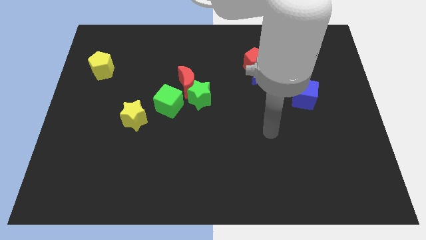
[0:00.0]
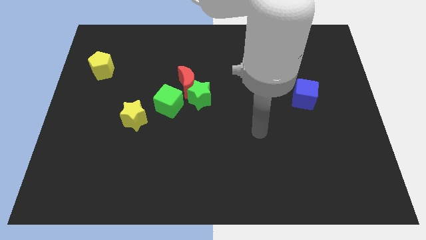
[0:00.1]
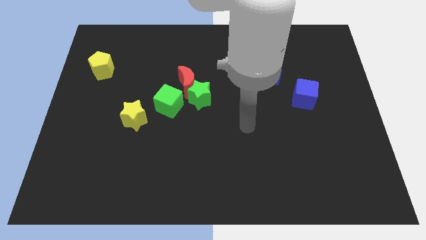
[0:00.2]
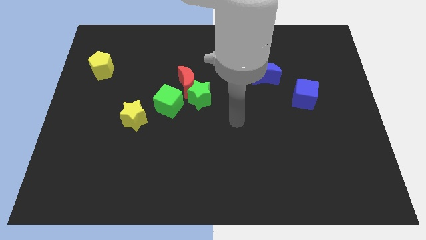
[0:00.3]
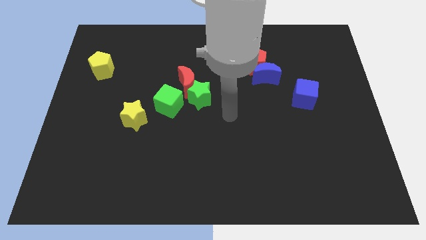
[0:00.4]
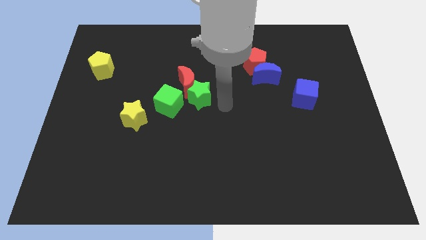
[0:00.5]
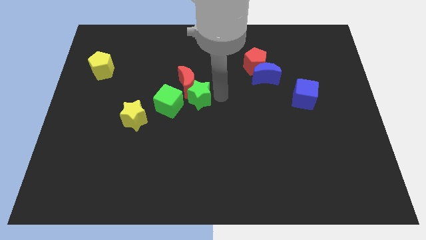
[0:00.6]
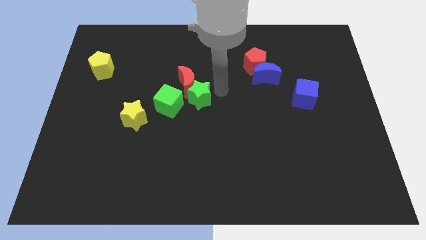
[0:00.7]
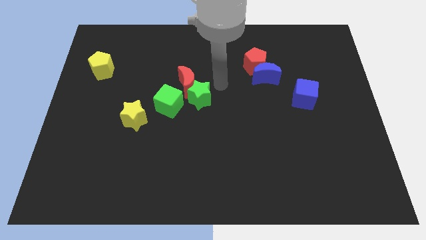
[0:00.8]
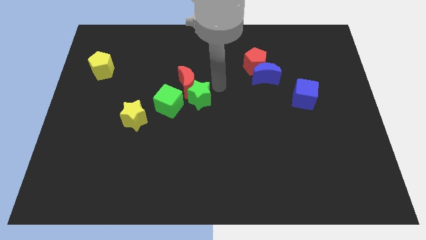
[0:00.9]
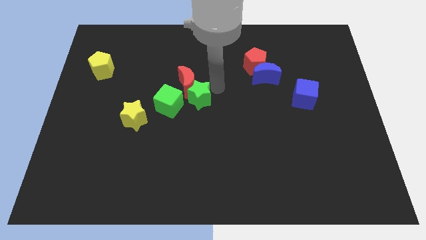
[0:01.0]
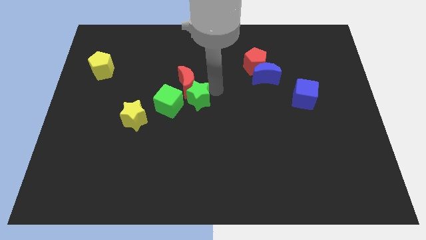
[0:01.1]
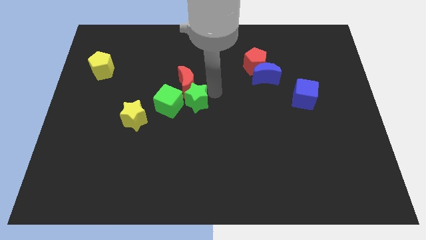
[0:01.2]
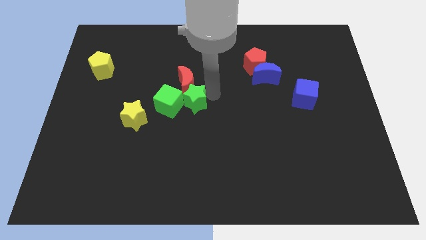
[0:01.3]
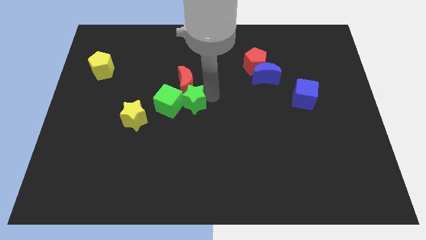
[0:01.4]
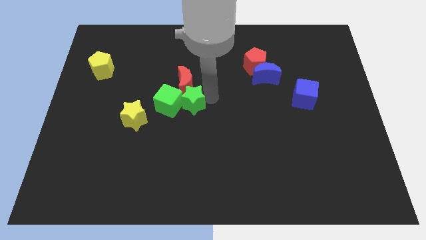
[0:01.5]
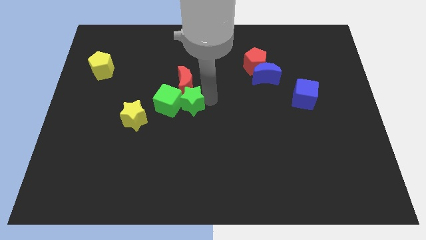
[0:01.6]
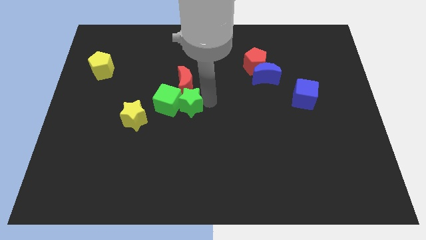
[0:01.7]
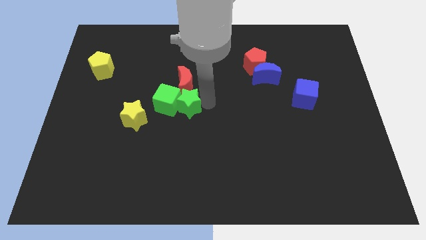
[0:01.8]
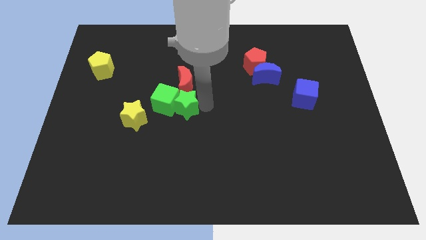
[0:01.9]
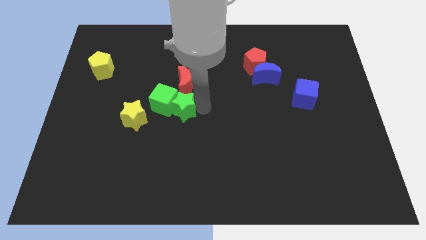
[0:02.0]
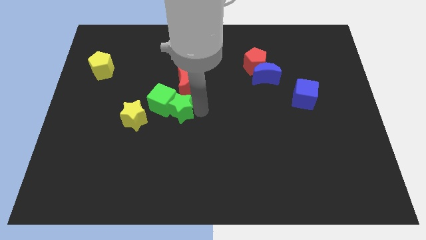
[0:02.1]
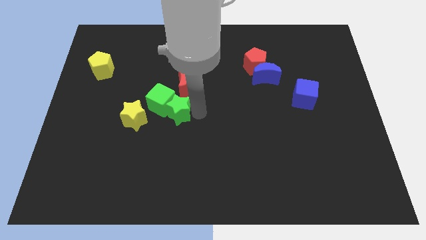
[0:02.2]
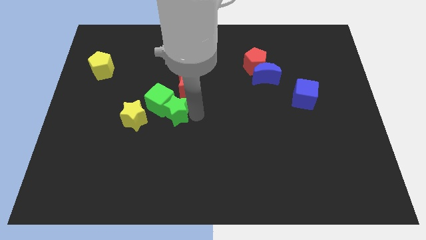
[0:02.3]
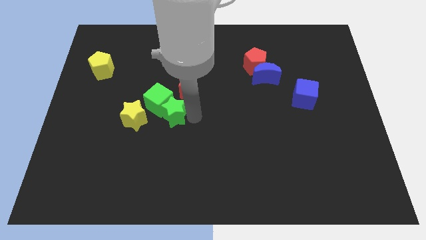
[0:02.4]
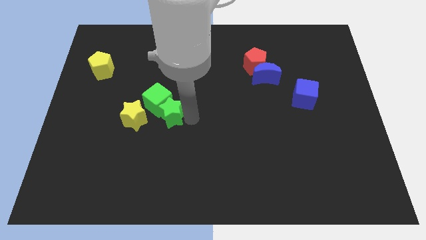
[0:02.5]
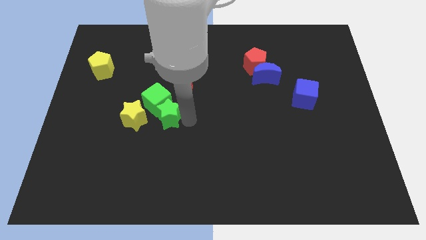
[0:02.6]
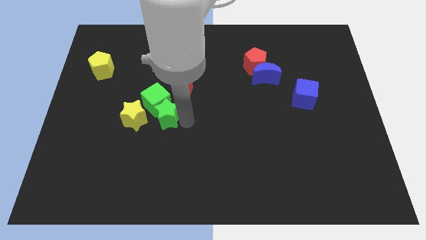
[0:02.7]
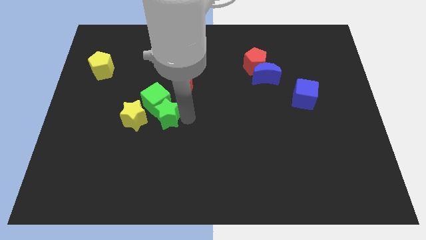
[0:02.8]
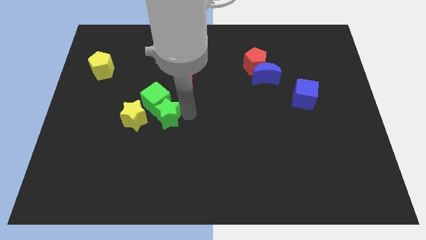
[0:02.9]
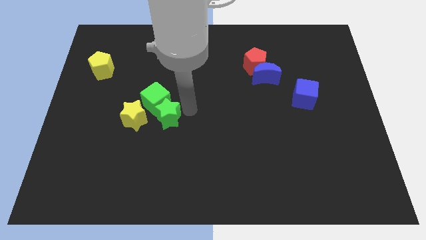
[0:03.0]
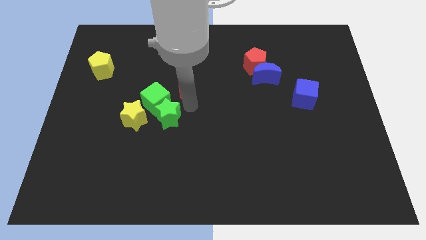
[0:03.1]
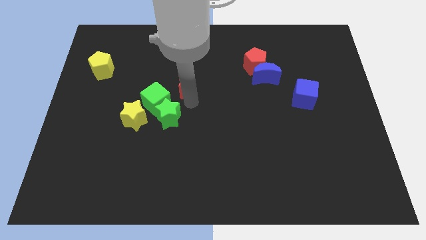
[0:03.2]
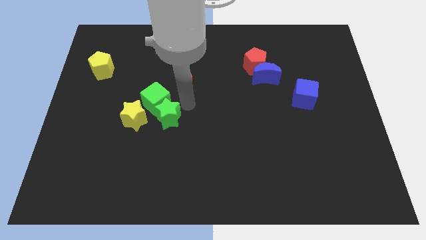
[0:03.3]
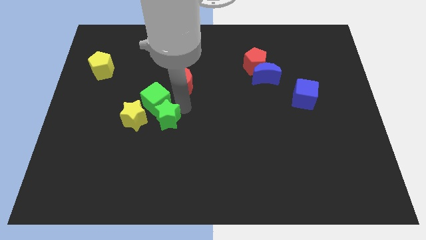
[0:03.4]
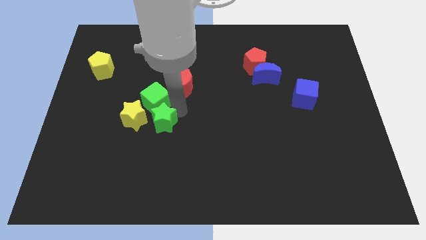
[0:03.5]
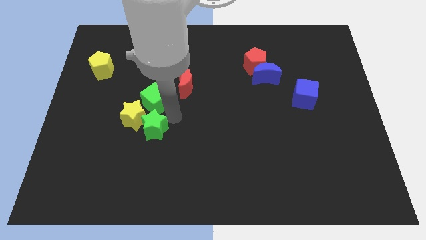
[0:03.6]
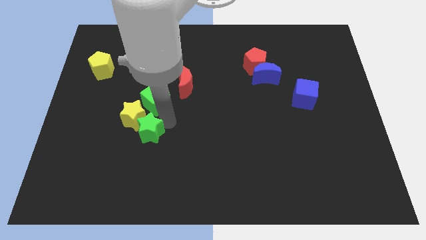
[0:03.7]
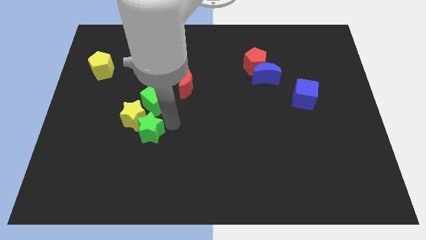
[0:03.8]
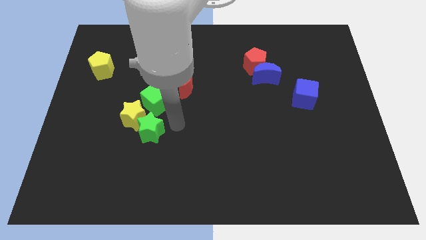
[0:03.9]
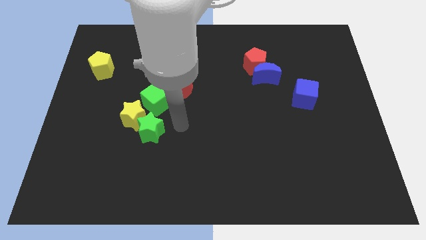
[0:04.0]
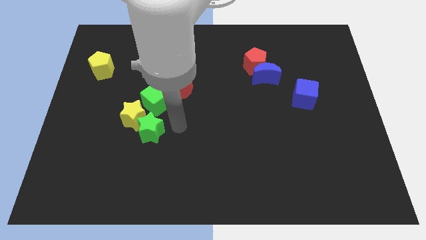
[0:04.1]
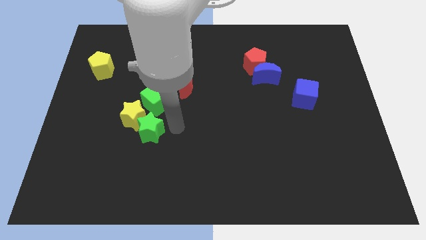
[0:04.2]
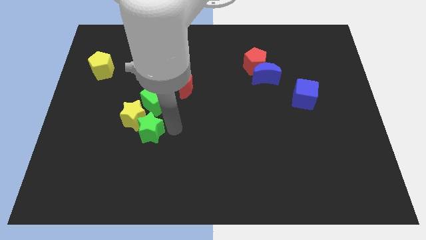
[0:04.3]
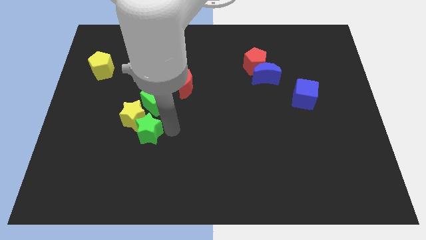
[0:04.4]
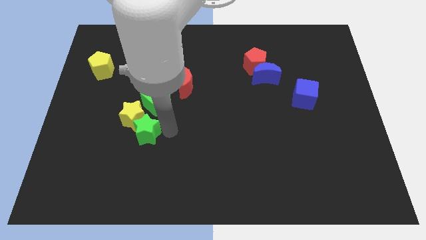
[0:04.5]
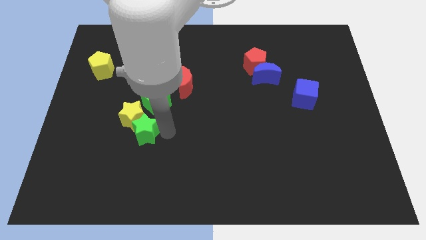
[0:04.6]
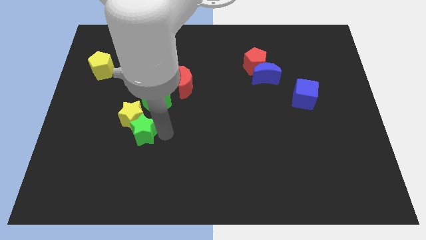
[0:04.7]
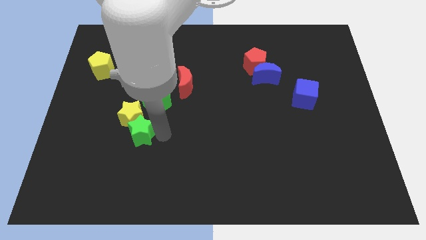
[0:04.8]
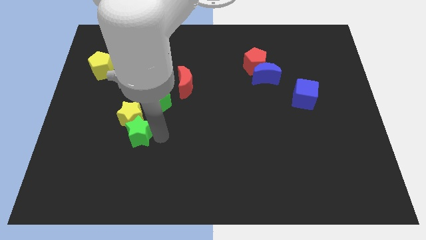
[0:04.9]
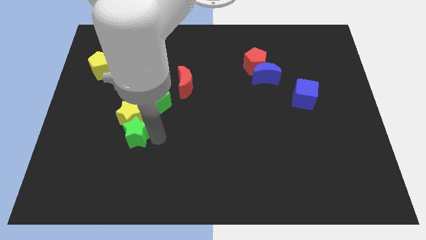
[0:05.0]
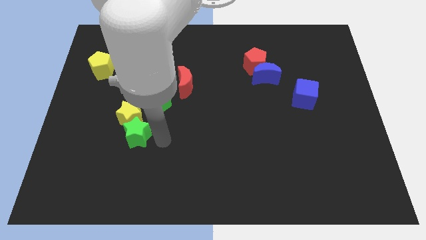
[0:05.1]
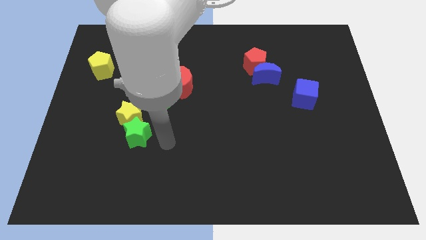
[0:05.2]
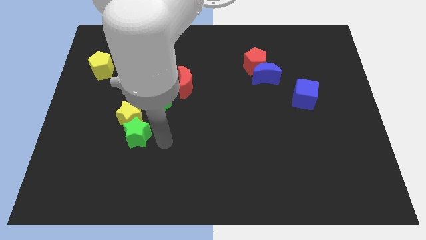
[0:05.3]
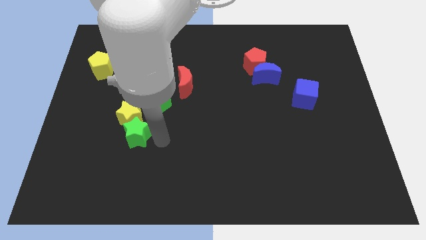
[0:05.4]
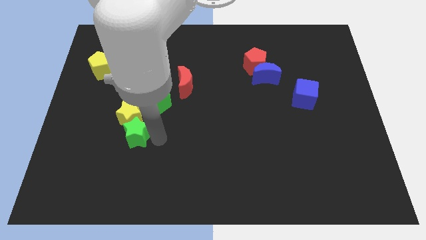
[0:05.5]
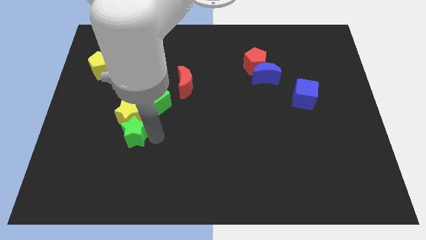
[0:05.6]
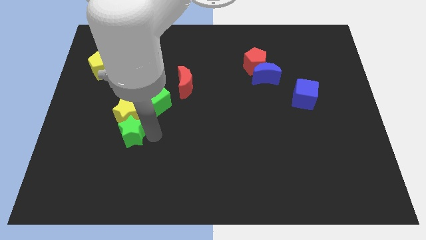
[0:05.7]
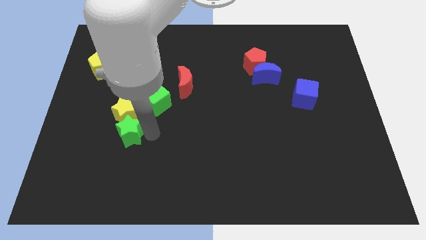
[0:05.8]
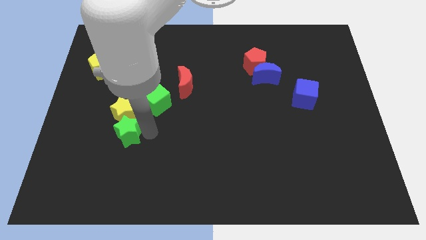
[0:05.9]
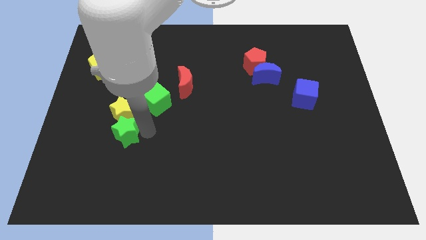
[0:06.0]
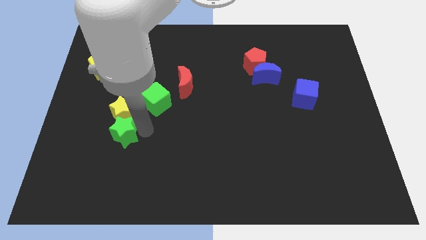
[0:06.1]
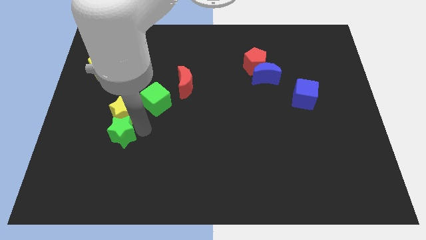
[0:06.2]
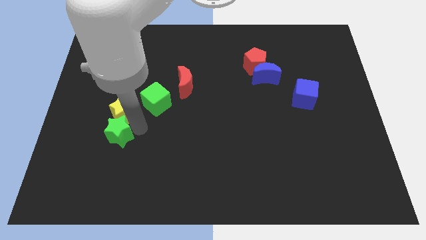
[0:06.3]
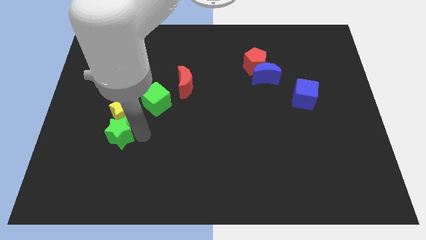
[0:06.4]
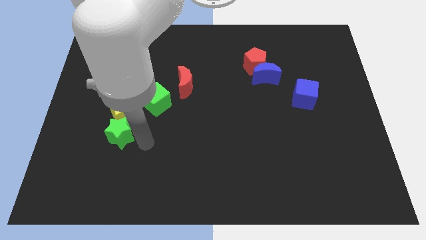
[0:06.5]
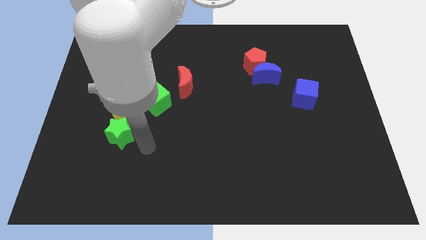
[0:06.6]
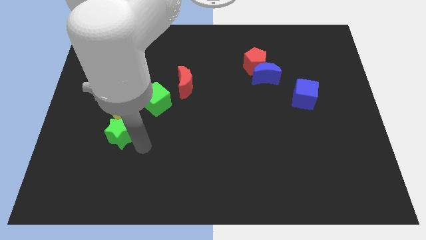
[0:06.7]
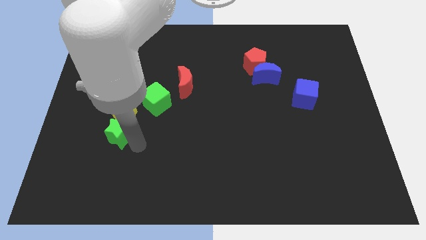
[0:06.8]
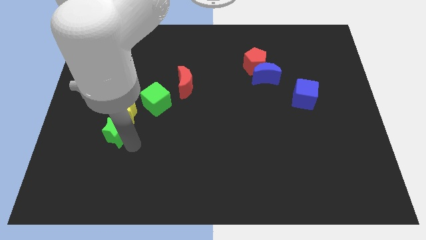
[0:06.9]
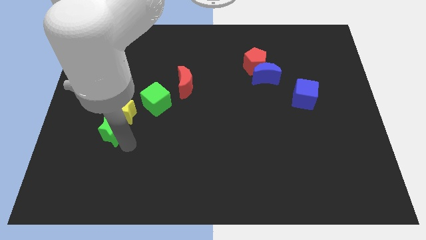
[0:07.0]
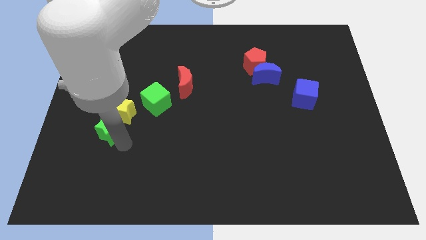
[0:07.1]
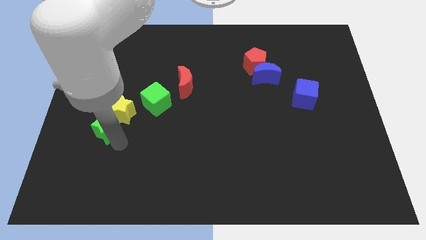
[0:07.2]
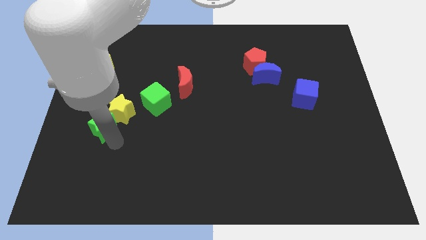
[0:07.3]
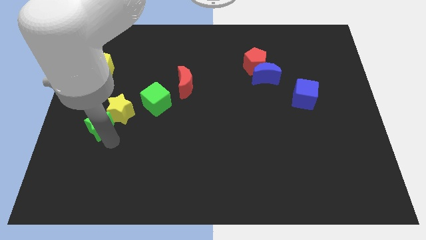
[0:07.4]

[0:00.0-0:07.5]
push the green star to the left of the yellow star
